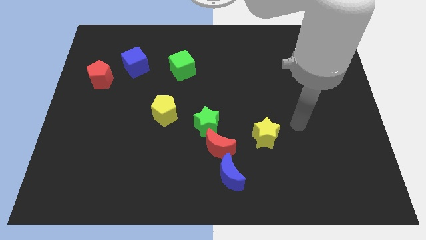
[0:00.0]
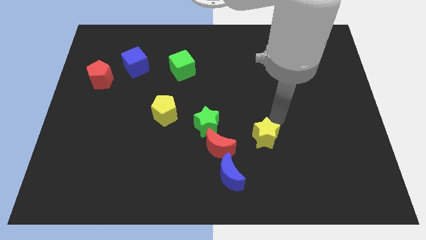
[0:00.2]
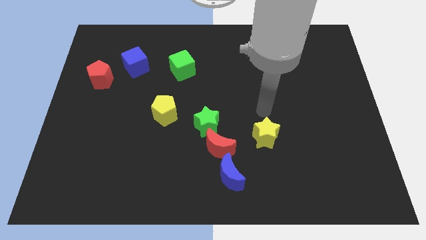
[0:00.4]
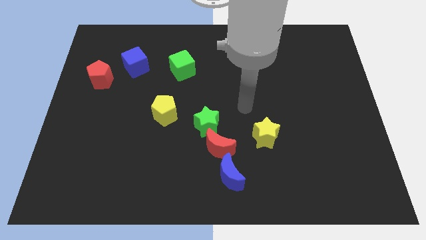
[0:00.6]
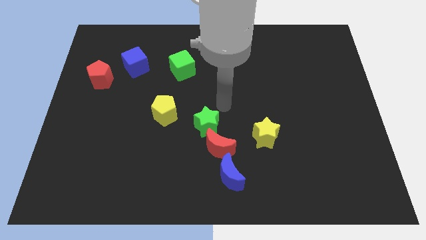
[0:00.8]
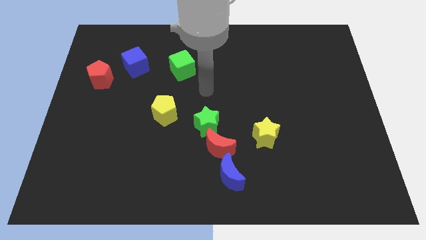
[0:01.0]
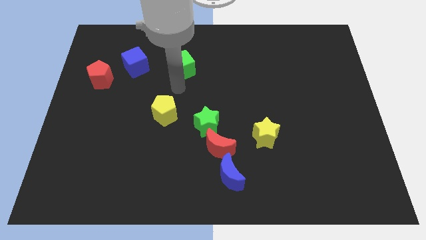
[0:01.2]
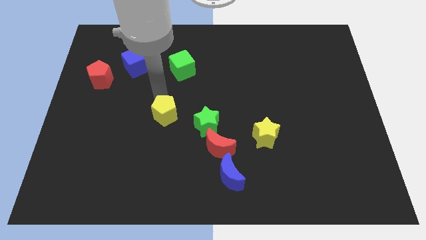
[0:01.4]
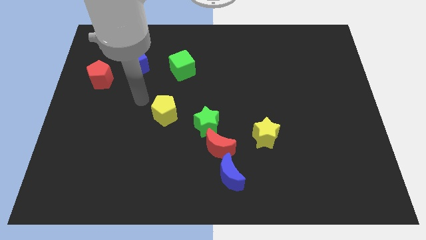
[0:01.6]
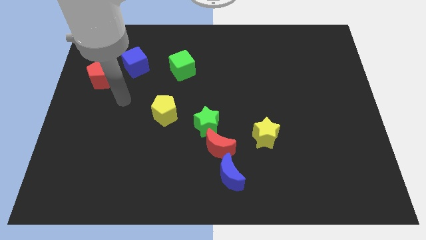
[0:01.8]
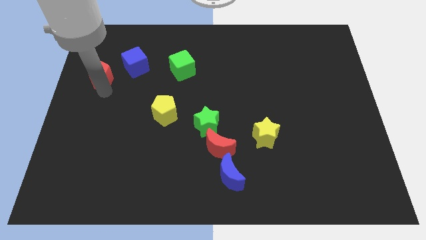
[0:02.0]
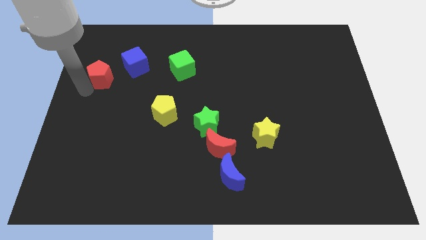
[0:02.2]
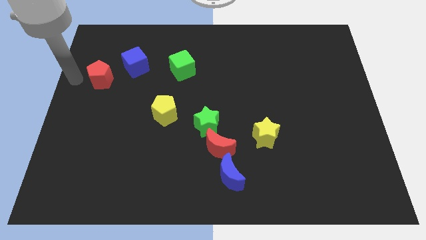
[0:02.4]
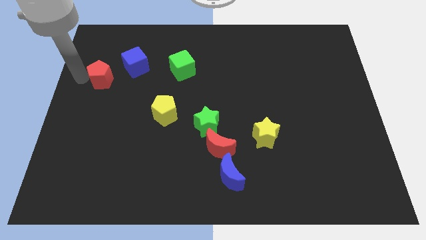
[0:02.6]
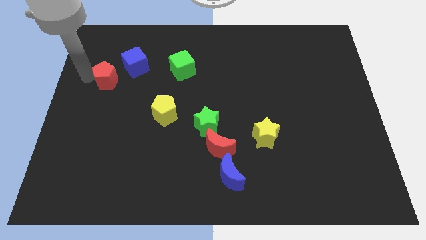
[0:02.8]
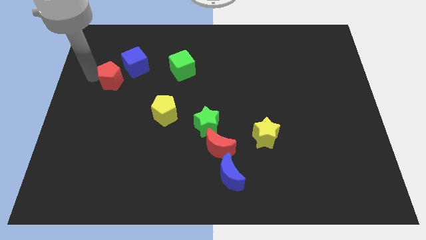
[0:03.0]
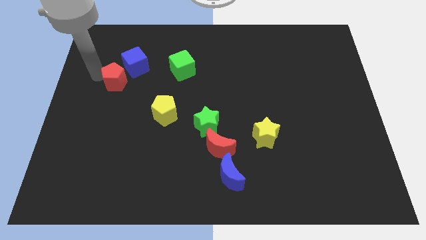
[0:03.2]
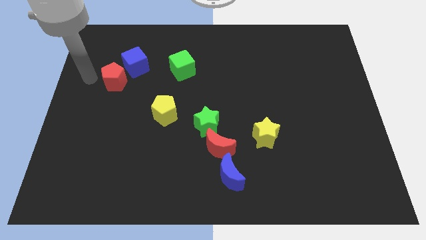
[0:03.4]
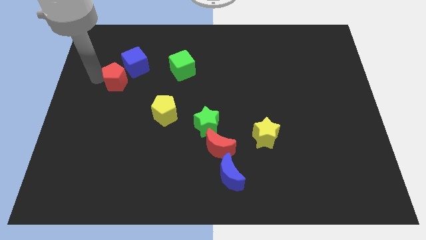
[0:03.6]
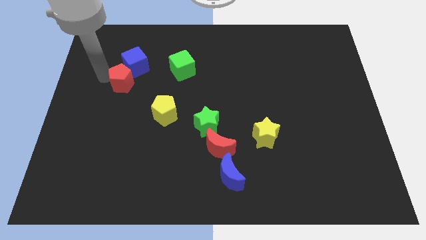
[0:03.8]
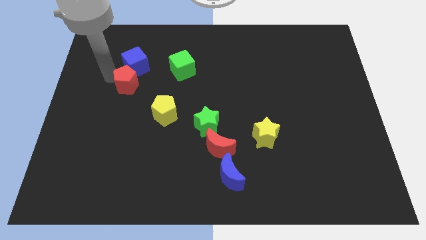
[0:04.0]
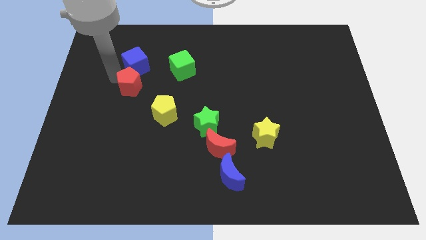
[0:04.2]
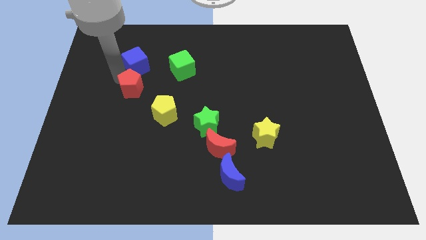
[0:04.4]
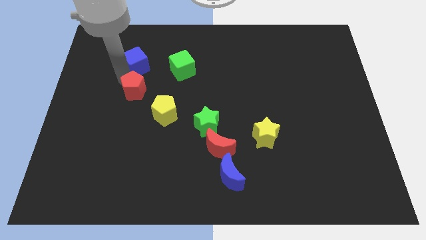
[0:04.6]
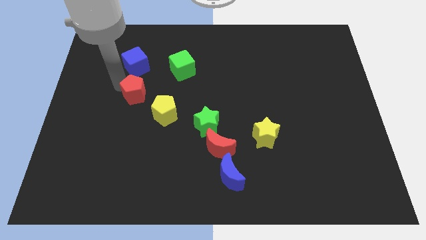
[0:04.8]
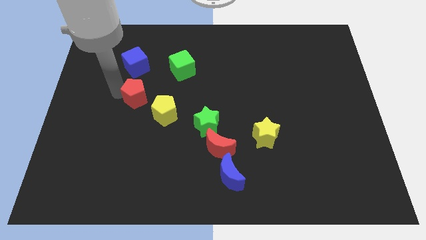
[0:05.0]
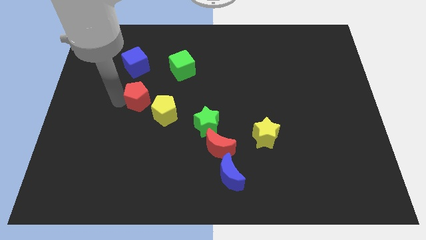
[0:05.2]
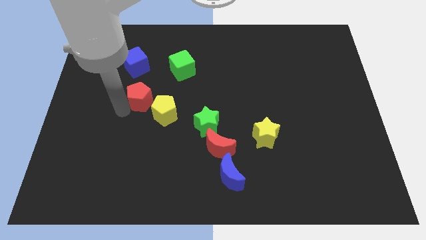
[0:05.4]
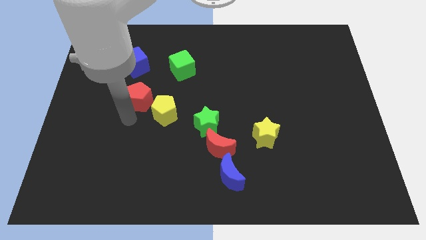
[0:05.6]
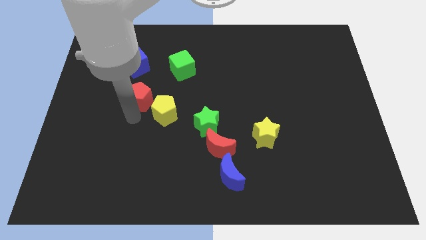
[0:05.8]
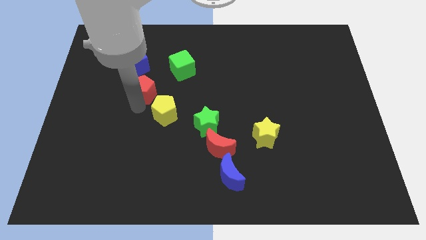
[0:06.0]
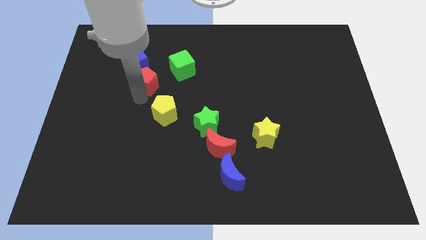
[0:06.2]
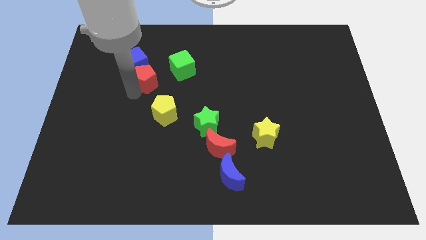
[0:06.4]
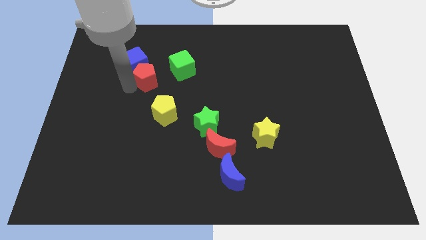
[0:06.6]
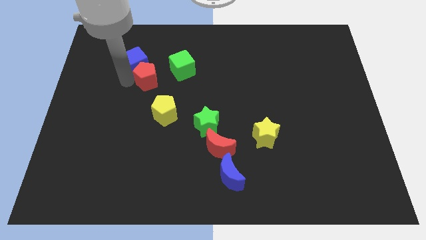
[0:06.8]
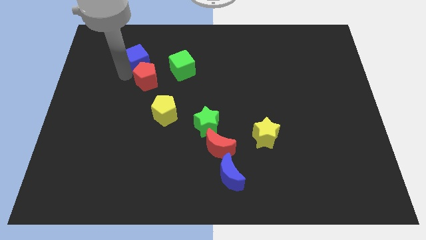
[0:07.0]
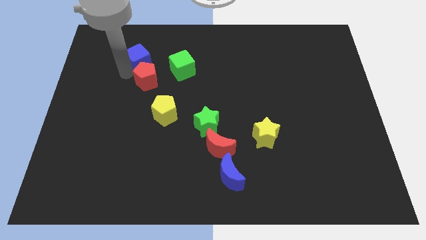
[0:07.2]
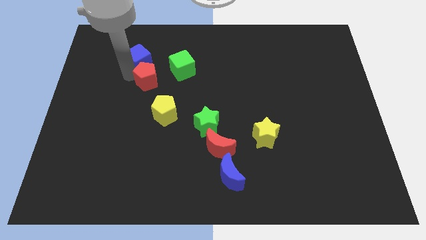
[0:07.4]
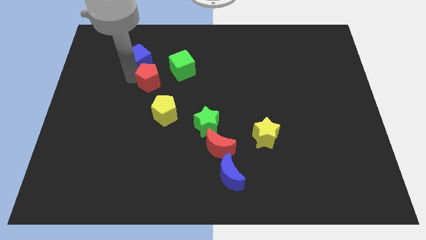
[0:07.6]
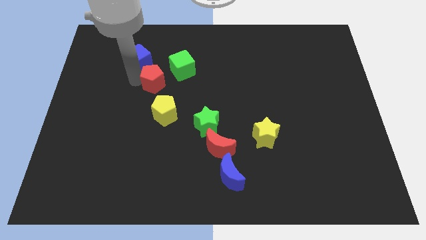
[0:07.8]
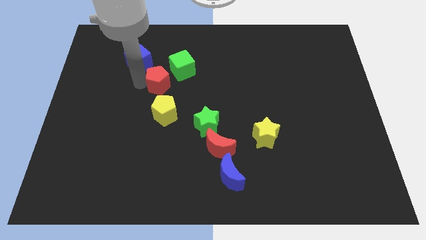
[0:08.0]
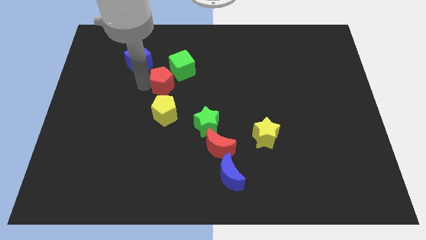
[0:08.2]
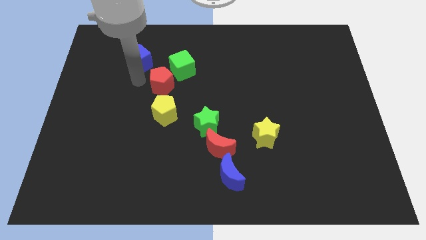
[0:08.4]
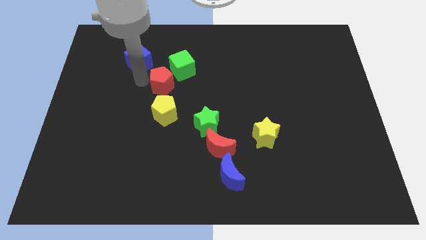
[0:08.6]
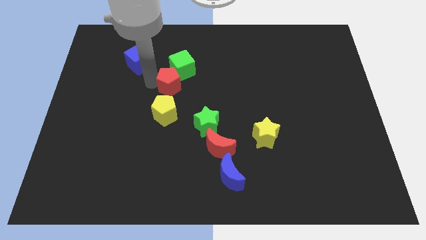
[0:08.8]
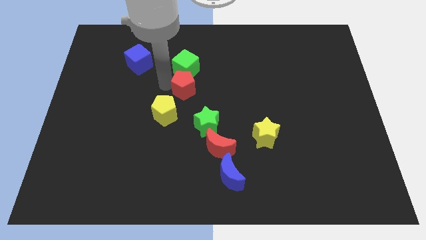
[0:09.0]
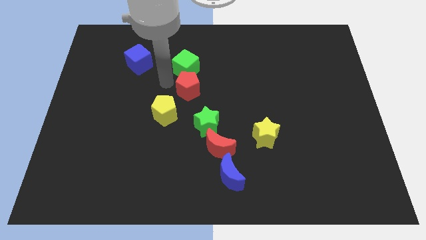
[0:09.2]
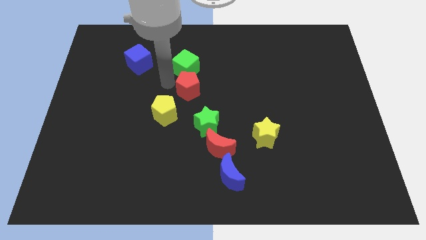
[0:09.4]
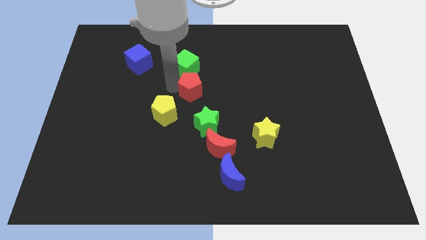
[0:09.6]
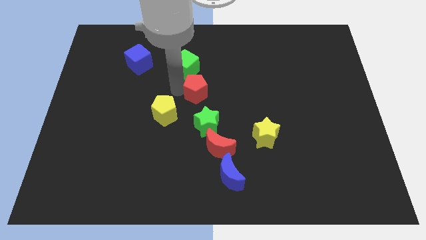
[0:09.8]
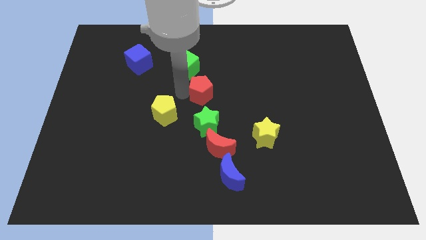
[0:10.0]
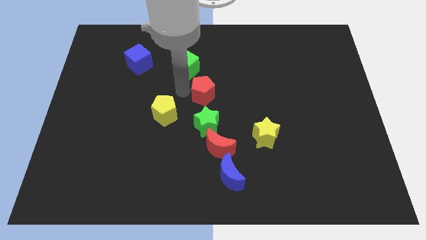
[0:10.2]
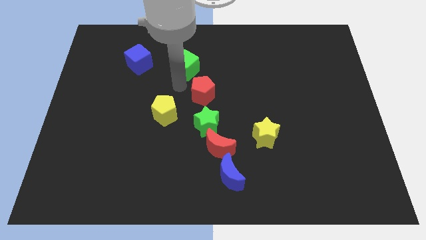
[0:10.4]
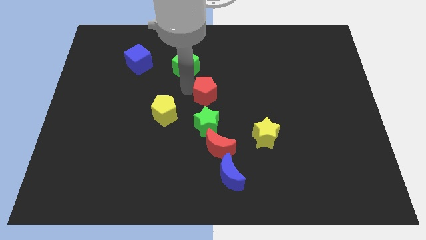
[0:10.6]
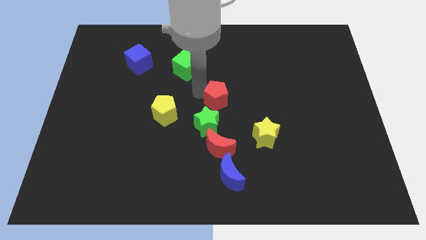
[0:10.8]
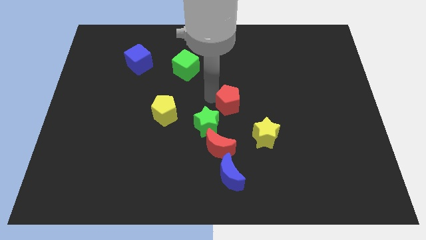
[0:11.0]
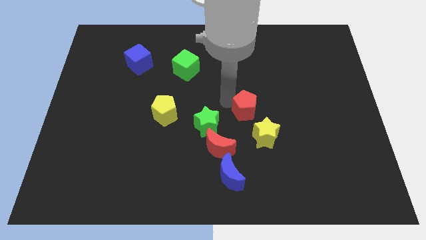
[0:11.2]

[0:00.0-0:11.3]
slide the red pentagon right of the green star

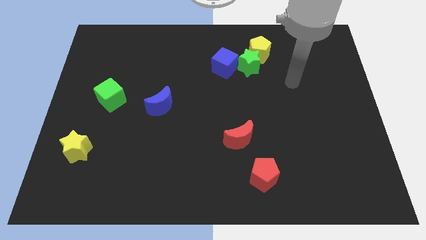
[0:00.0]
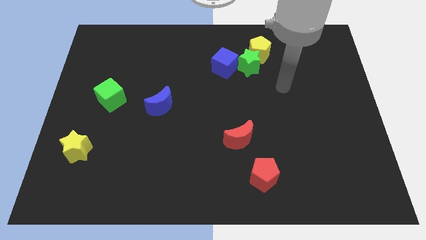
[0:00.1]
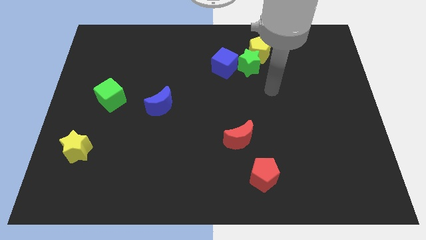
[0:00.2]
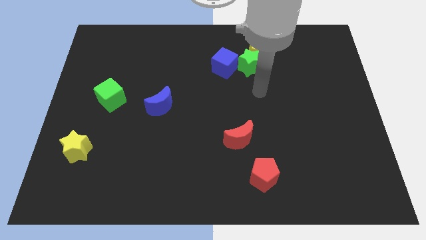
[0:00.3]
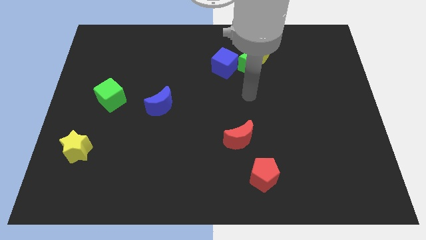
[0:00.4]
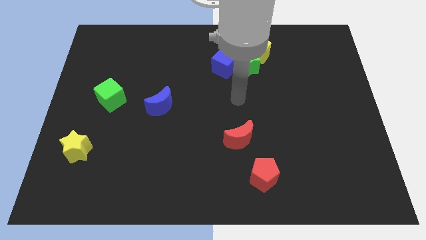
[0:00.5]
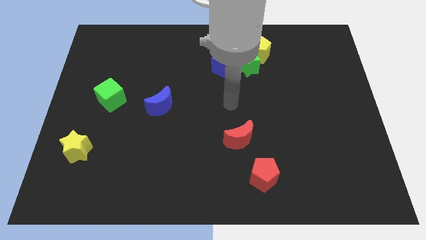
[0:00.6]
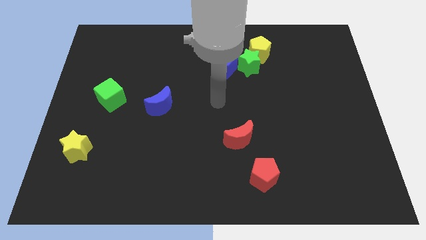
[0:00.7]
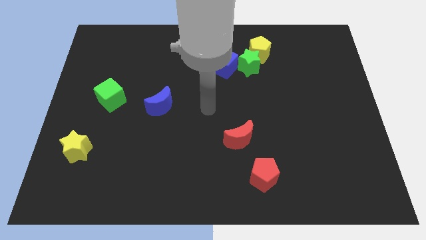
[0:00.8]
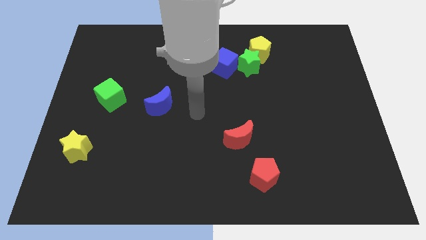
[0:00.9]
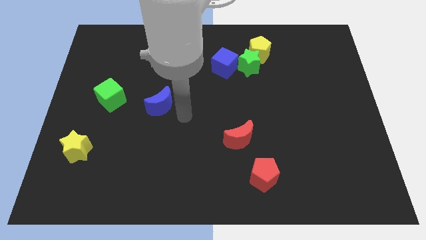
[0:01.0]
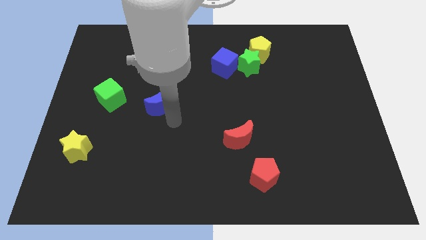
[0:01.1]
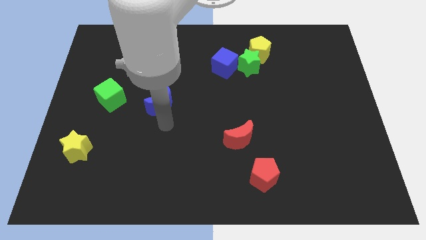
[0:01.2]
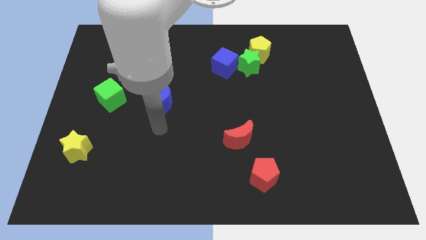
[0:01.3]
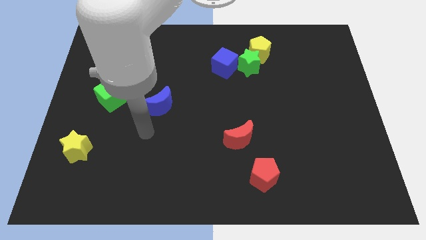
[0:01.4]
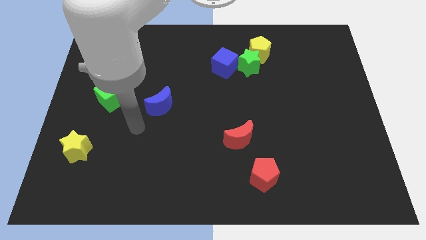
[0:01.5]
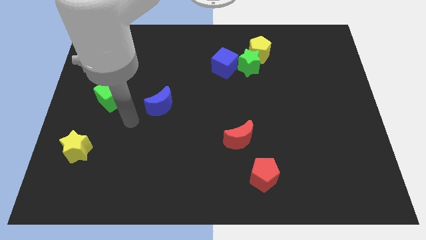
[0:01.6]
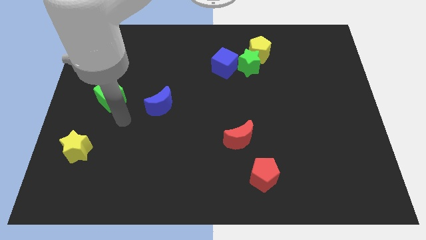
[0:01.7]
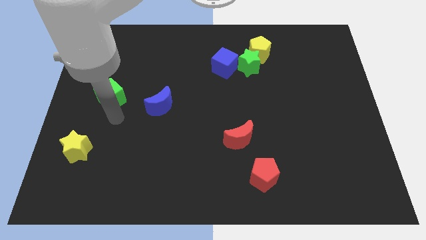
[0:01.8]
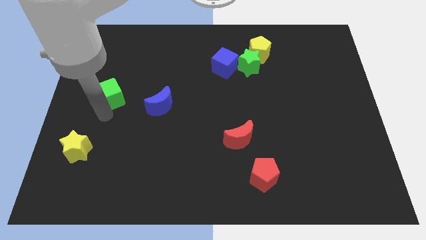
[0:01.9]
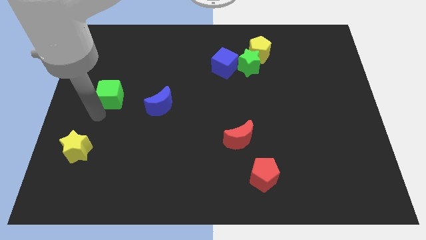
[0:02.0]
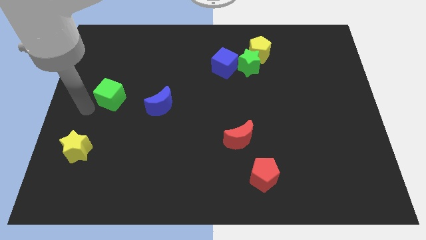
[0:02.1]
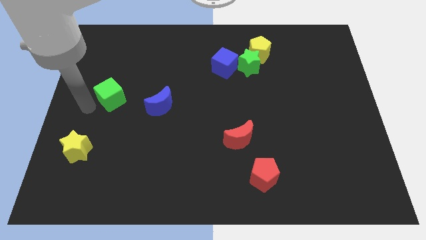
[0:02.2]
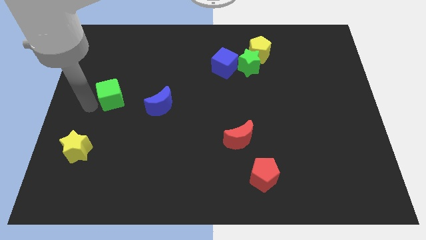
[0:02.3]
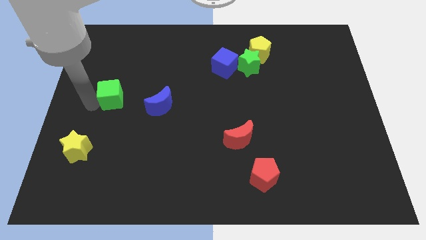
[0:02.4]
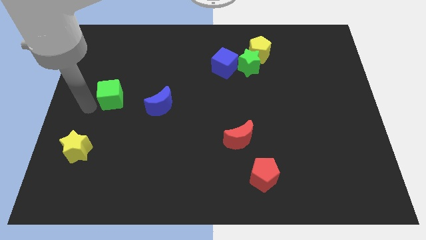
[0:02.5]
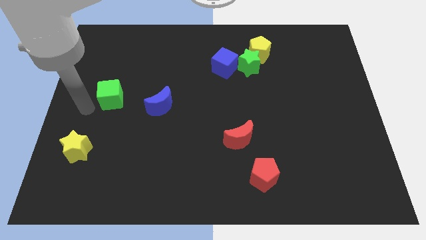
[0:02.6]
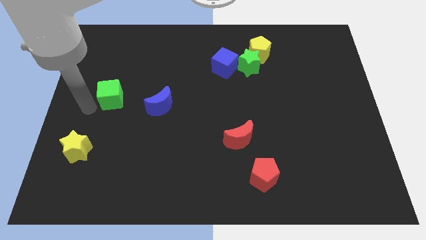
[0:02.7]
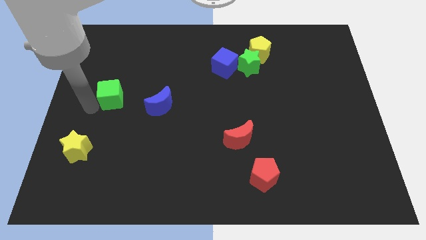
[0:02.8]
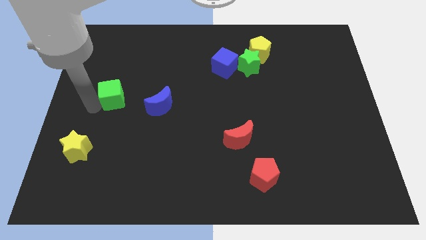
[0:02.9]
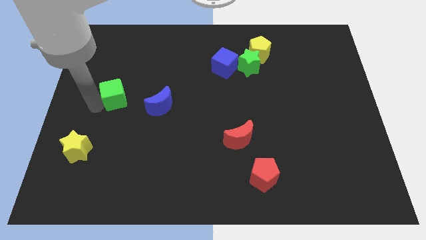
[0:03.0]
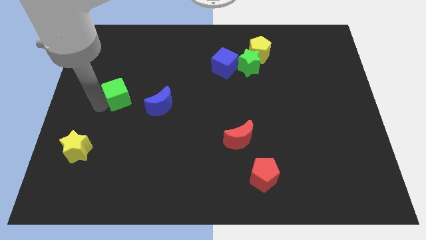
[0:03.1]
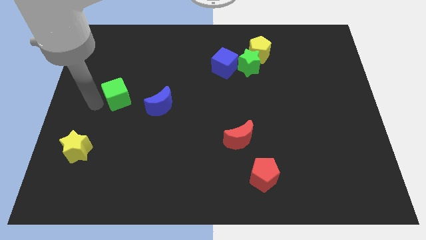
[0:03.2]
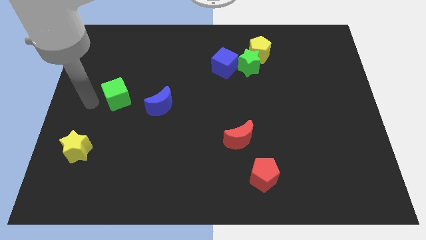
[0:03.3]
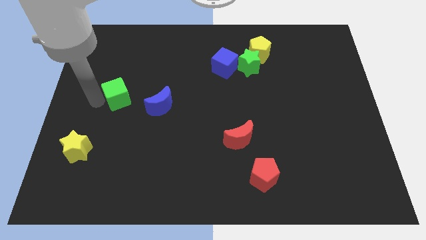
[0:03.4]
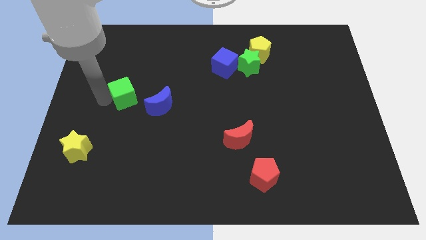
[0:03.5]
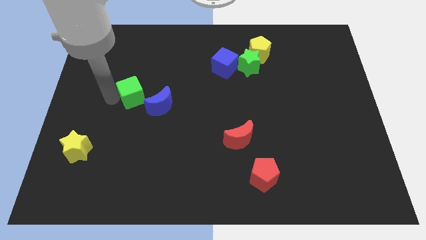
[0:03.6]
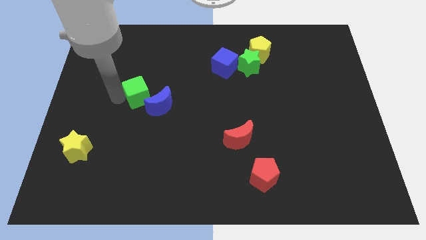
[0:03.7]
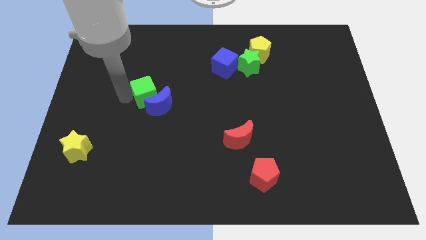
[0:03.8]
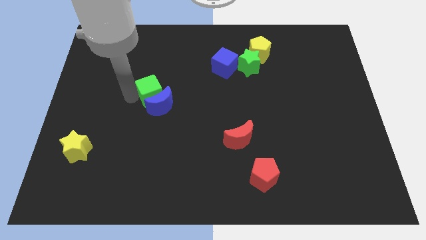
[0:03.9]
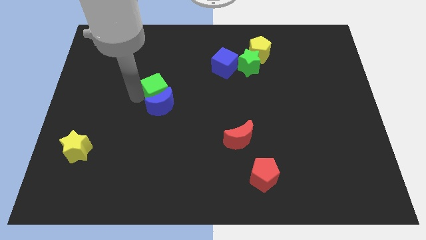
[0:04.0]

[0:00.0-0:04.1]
put the green cube to the top right of the blue moon
